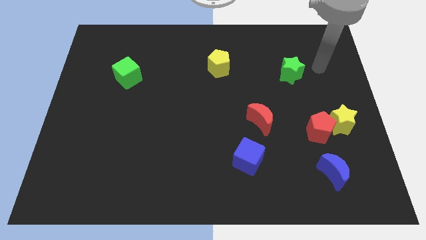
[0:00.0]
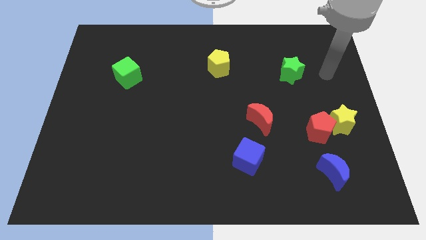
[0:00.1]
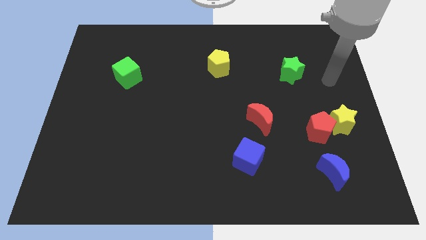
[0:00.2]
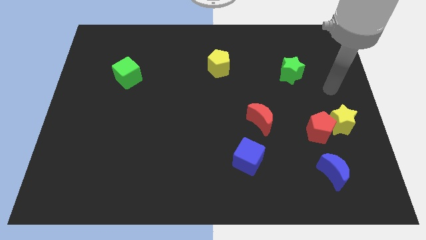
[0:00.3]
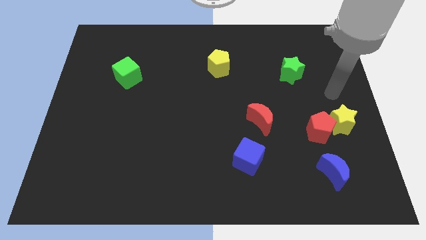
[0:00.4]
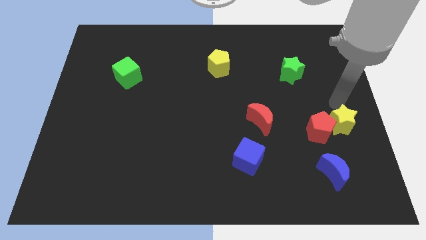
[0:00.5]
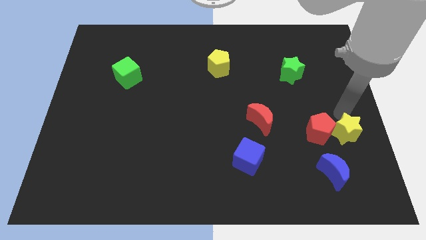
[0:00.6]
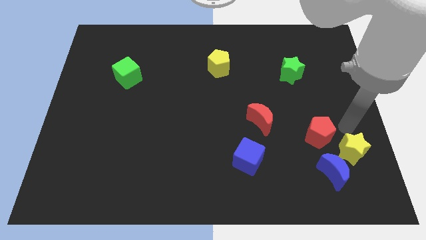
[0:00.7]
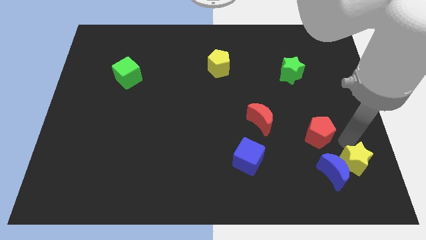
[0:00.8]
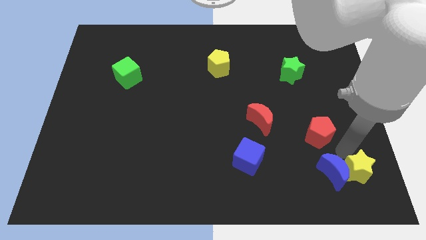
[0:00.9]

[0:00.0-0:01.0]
pull the red pentagon apart from the yellow star

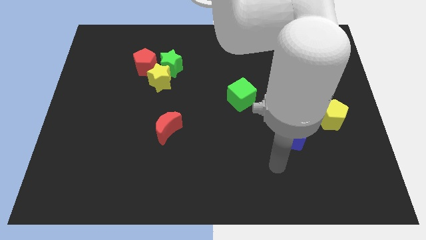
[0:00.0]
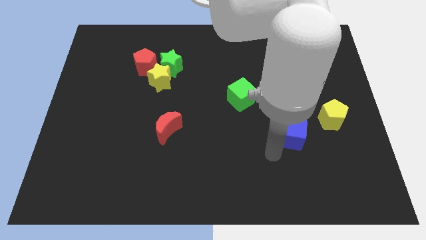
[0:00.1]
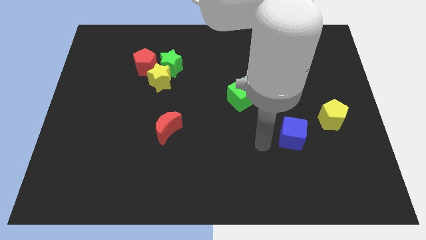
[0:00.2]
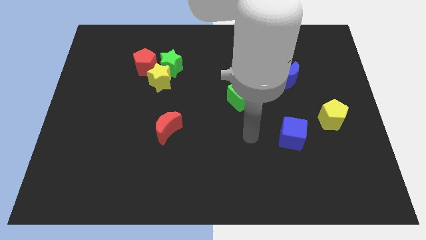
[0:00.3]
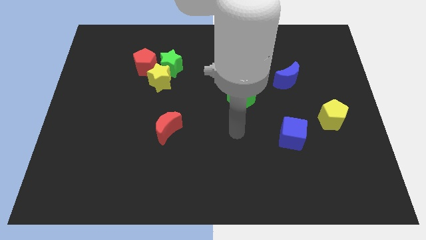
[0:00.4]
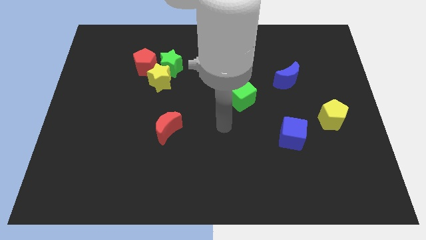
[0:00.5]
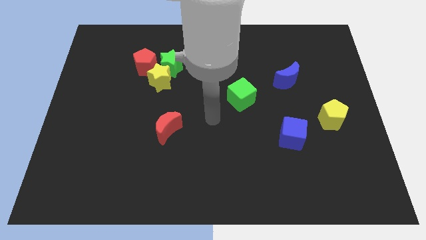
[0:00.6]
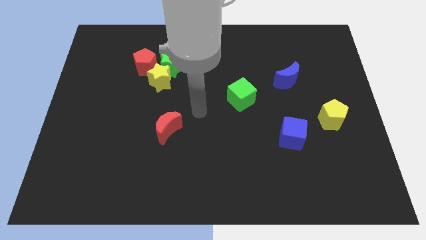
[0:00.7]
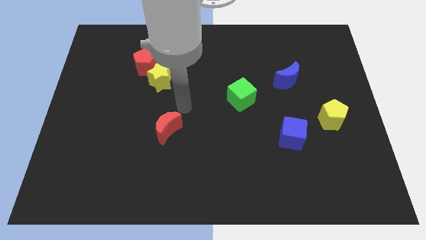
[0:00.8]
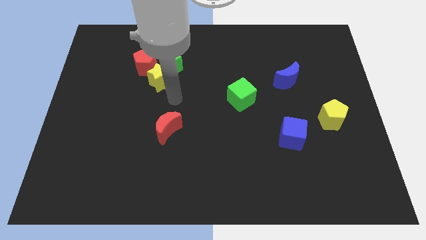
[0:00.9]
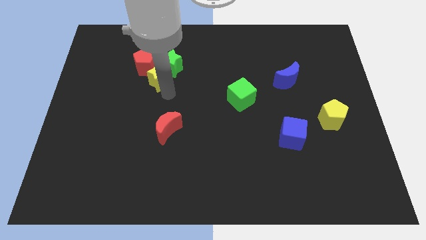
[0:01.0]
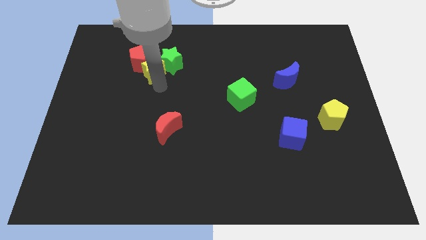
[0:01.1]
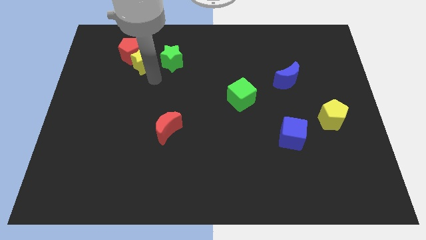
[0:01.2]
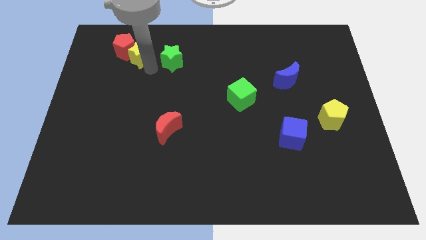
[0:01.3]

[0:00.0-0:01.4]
pull the green star apart from the yellow star and red pentagon

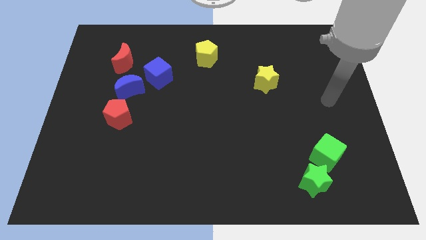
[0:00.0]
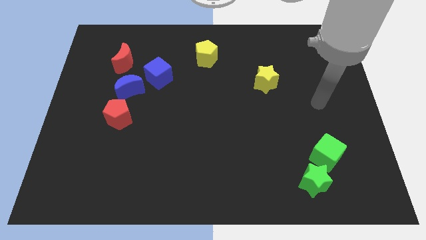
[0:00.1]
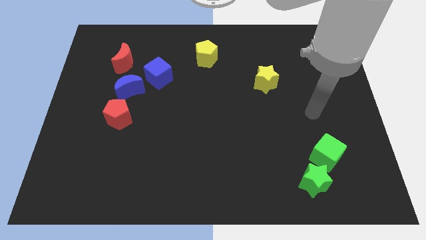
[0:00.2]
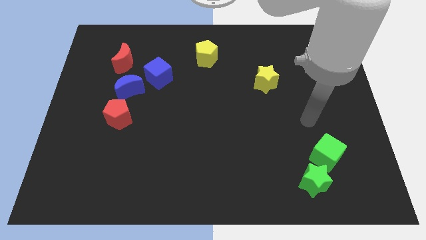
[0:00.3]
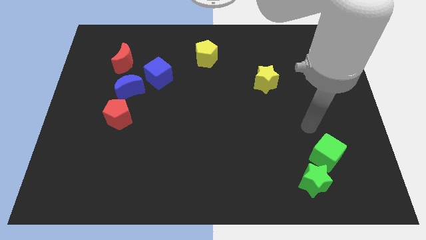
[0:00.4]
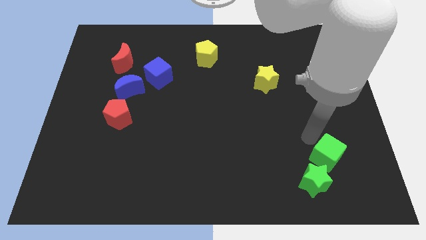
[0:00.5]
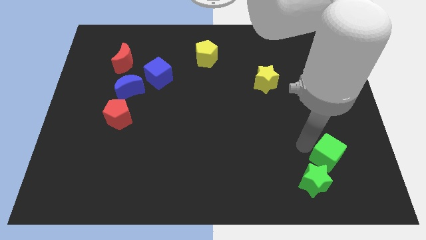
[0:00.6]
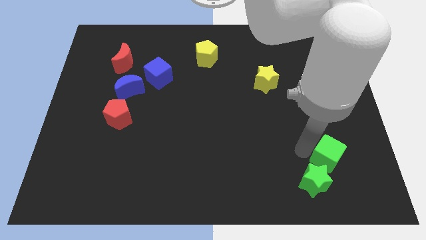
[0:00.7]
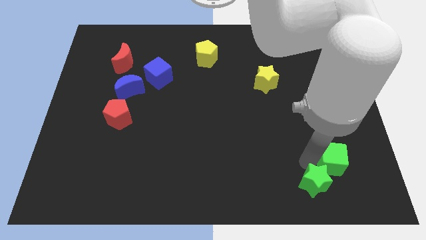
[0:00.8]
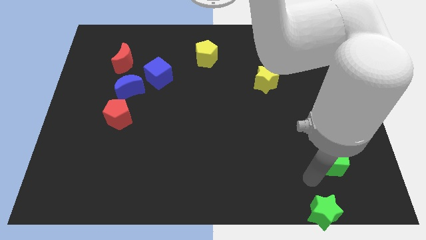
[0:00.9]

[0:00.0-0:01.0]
pull the green cube apart from the green star

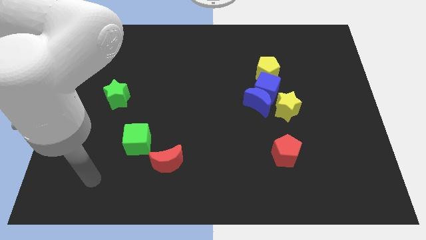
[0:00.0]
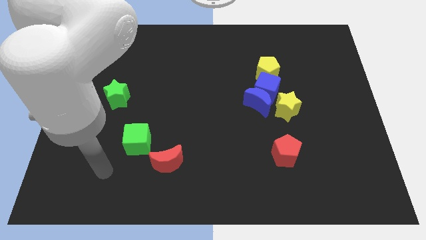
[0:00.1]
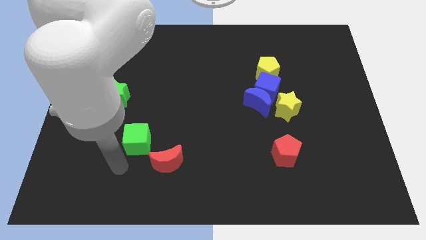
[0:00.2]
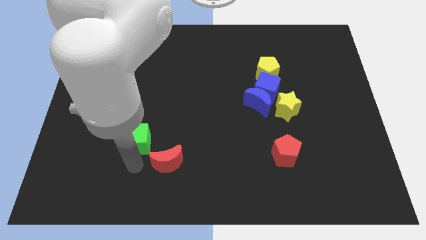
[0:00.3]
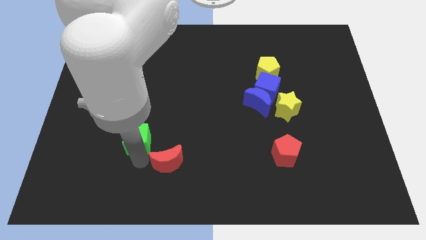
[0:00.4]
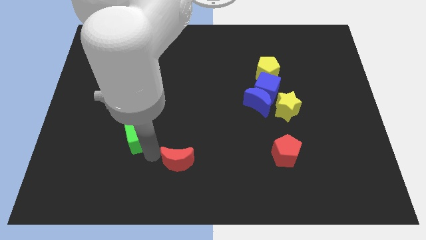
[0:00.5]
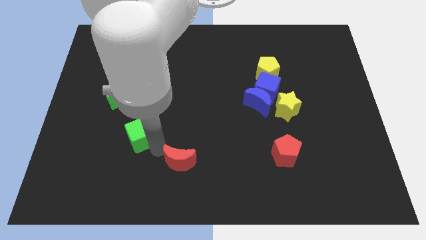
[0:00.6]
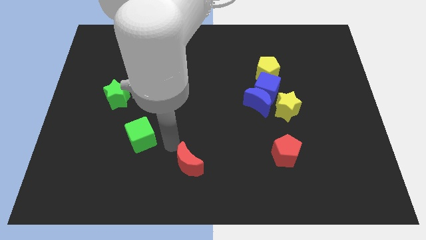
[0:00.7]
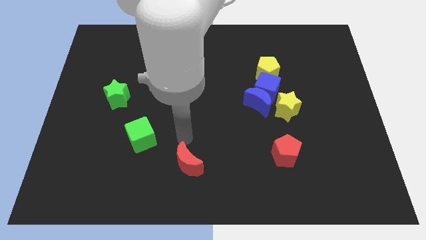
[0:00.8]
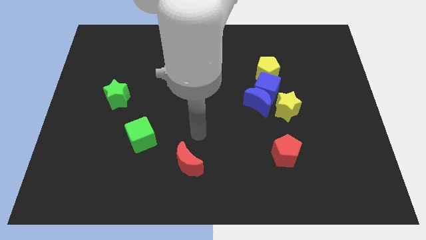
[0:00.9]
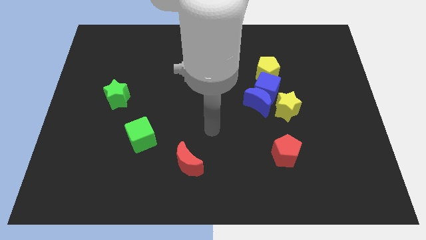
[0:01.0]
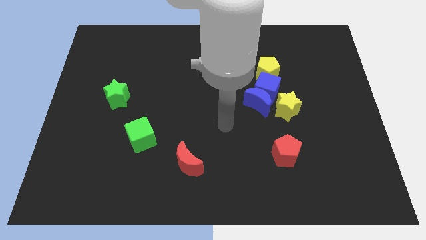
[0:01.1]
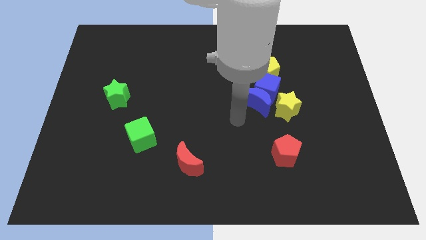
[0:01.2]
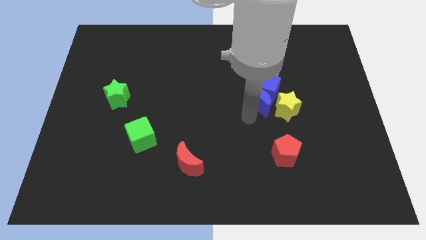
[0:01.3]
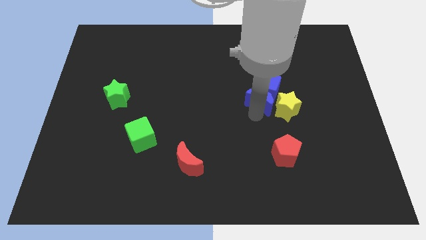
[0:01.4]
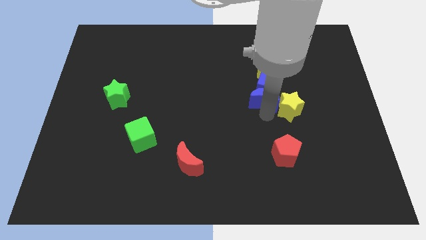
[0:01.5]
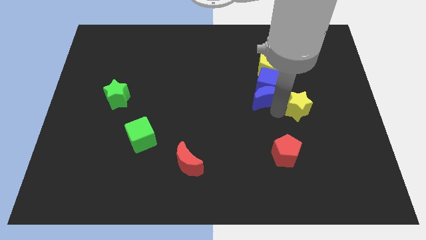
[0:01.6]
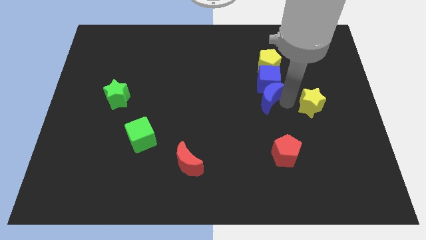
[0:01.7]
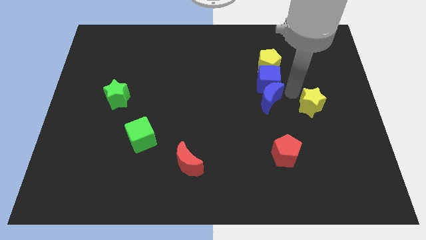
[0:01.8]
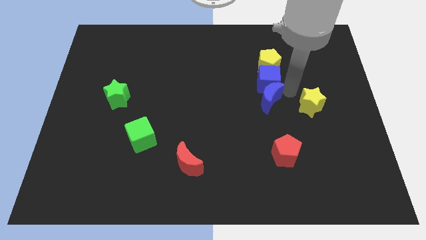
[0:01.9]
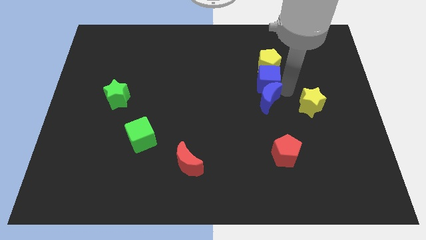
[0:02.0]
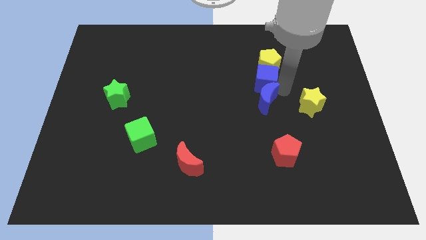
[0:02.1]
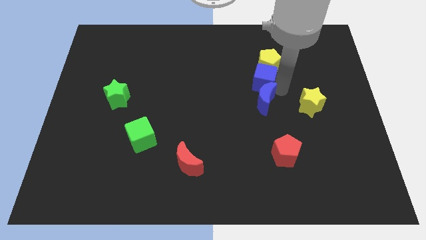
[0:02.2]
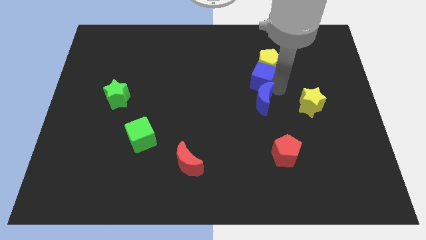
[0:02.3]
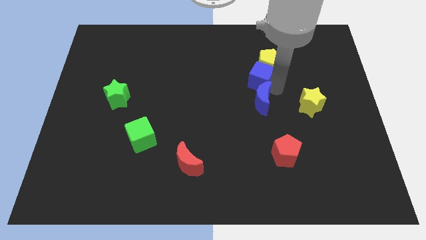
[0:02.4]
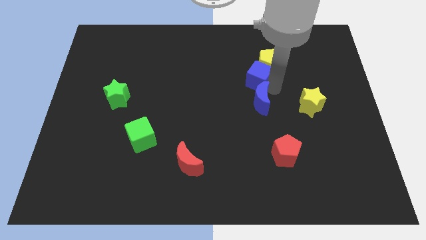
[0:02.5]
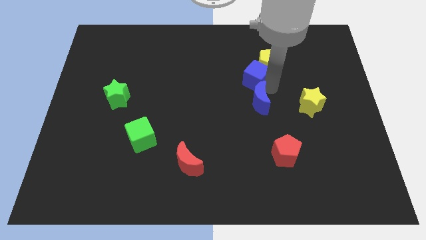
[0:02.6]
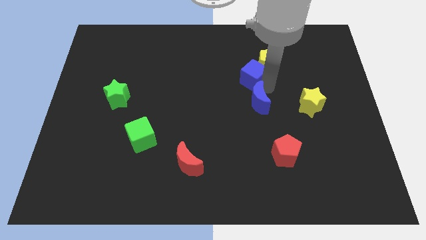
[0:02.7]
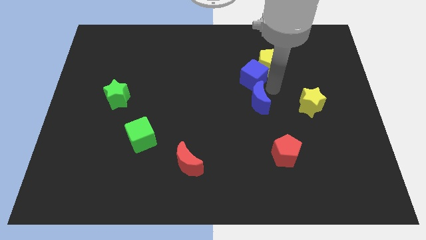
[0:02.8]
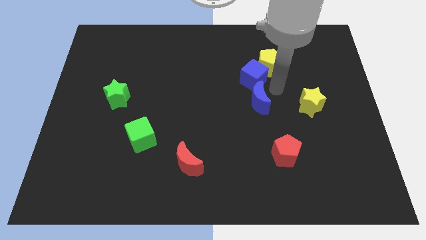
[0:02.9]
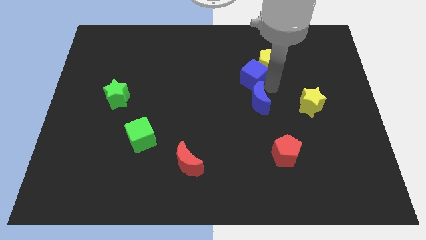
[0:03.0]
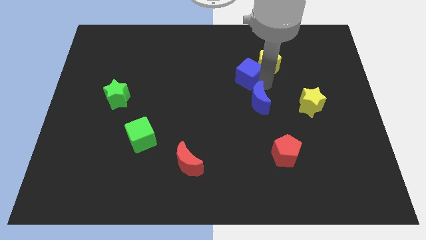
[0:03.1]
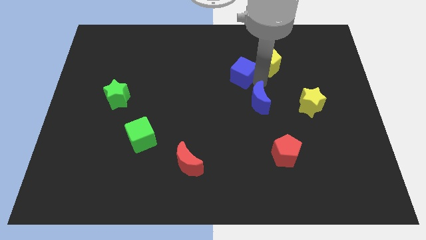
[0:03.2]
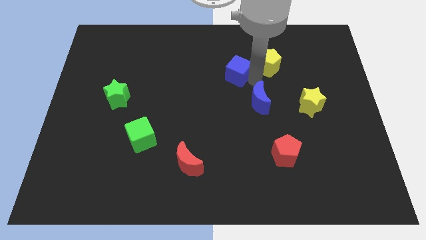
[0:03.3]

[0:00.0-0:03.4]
move the blue cube away from the blue moon, yellow pentagon, and yellow star

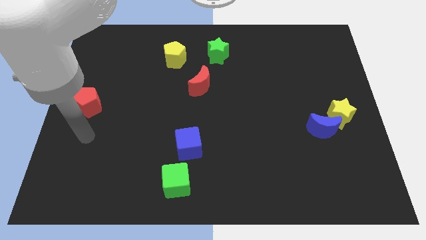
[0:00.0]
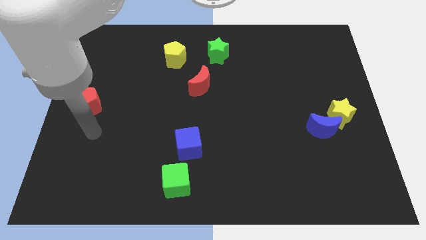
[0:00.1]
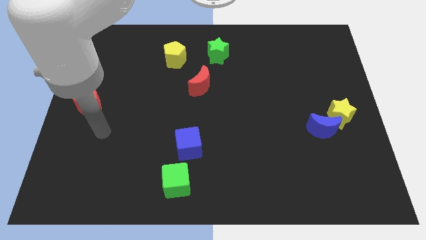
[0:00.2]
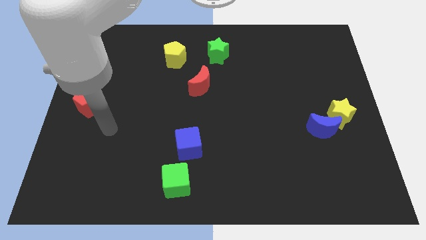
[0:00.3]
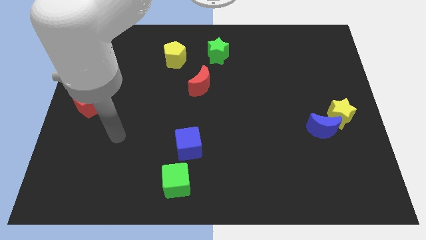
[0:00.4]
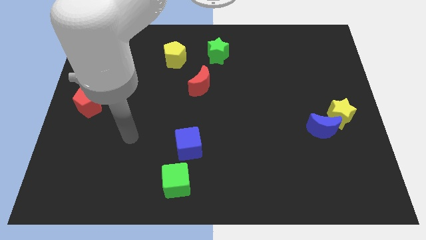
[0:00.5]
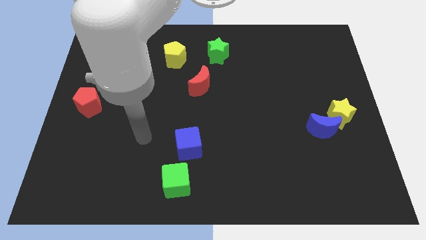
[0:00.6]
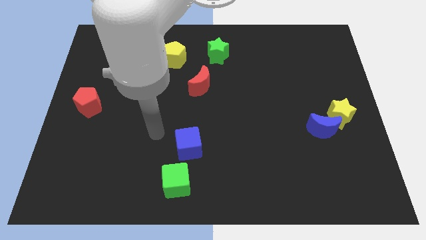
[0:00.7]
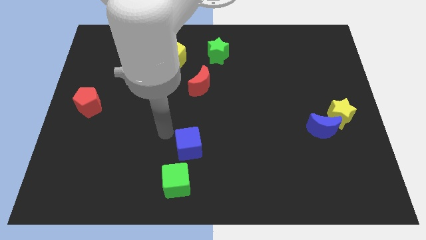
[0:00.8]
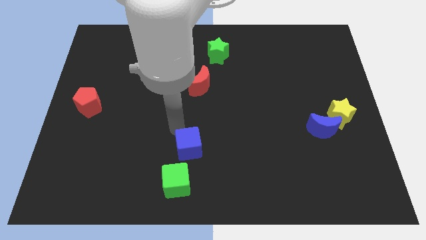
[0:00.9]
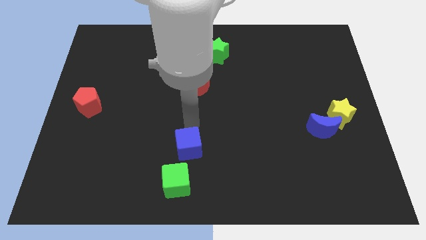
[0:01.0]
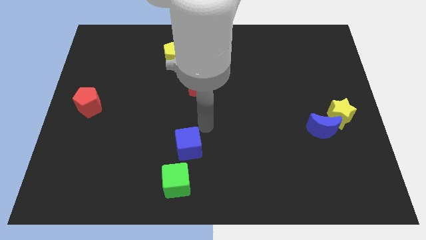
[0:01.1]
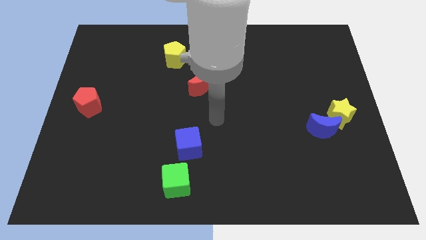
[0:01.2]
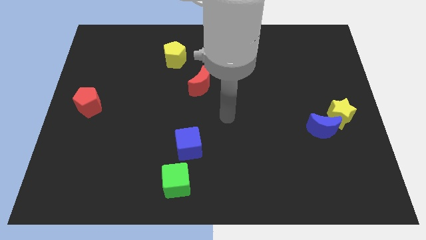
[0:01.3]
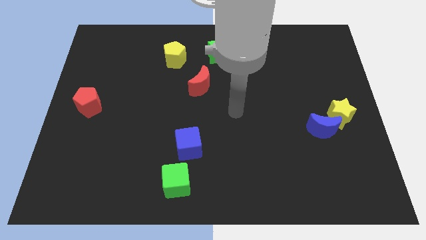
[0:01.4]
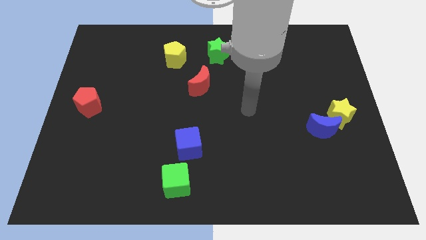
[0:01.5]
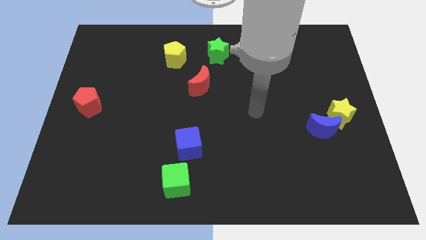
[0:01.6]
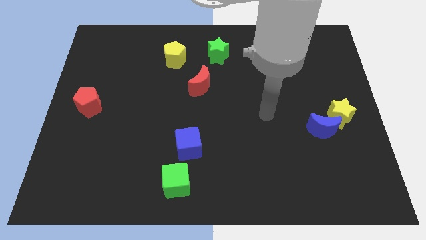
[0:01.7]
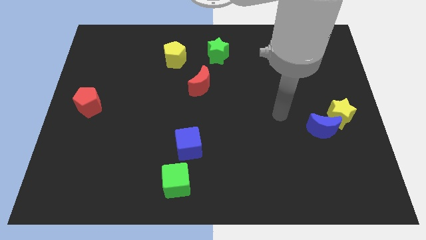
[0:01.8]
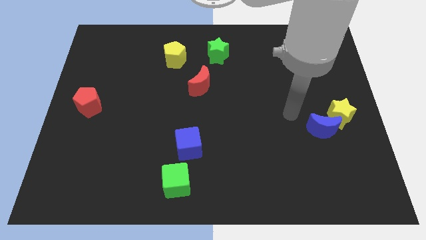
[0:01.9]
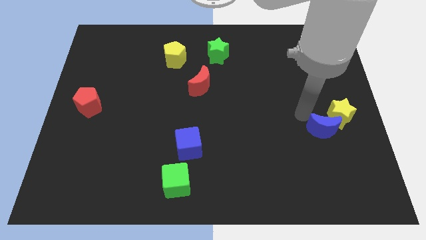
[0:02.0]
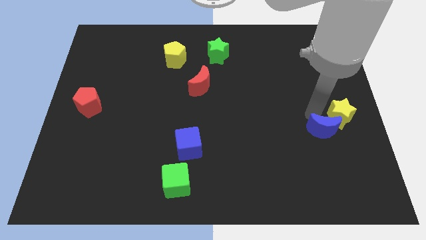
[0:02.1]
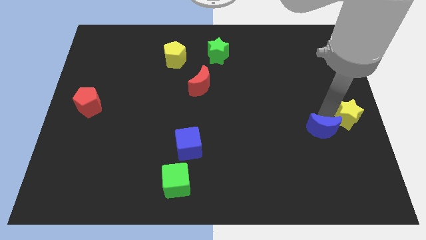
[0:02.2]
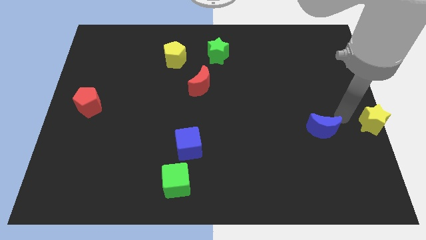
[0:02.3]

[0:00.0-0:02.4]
pull the blue moon apart from the yellow star
